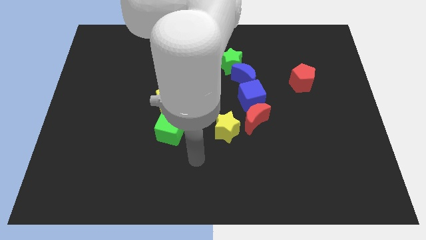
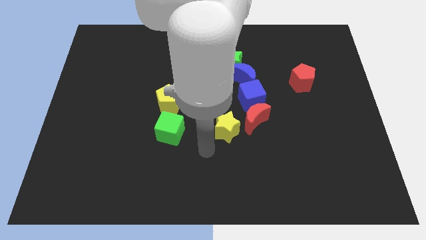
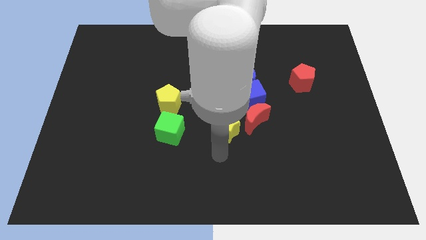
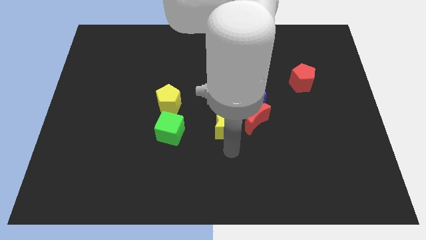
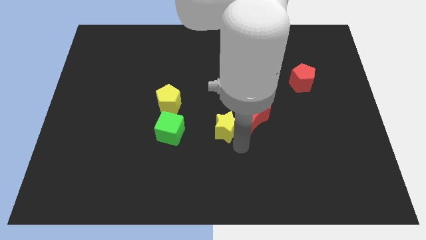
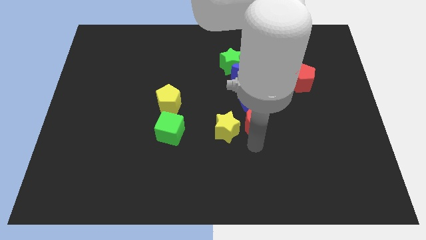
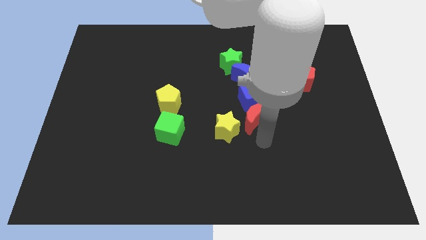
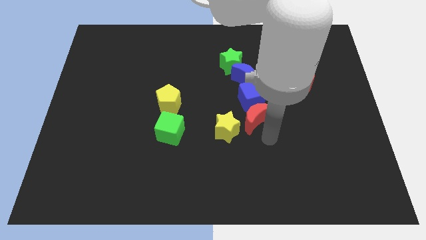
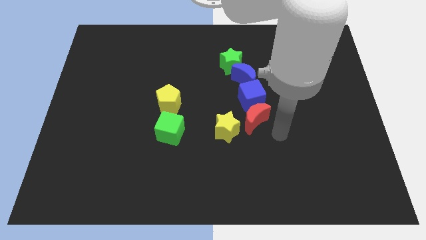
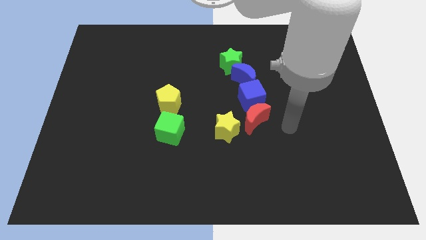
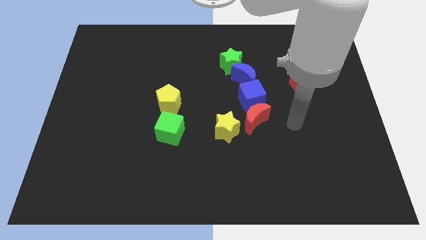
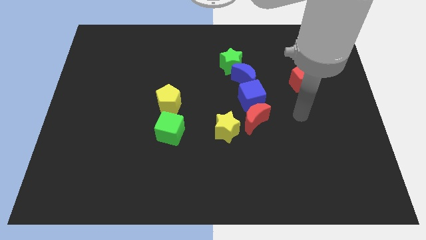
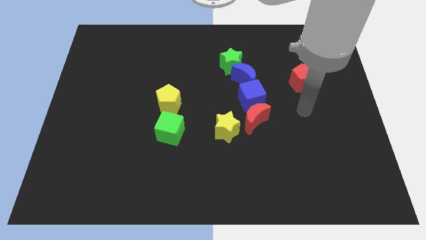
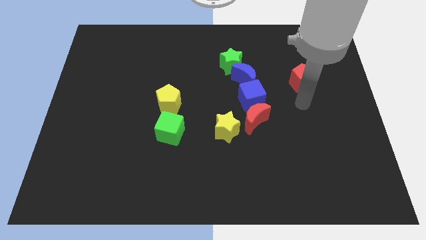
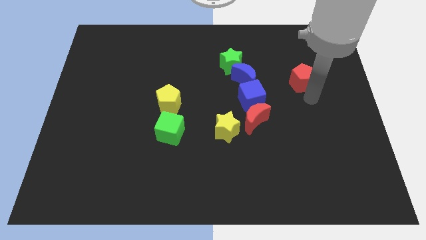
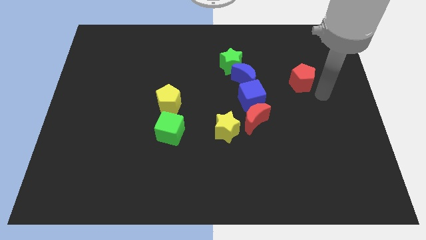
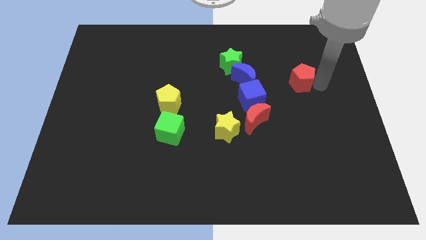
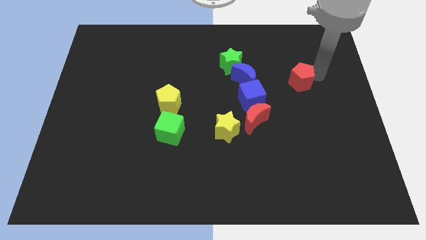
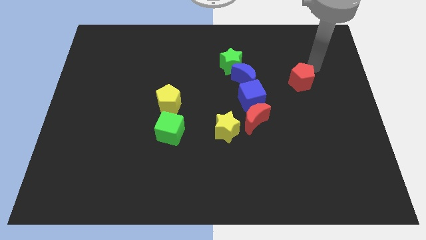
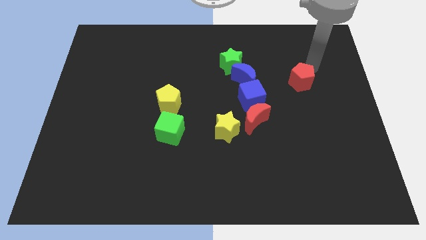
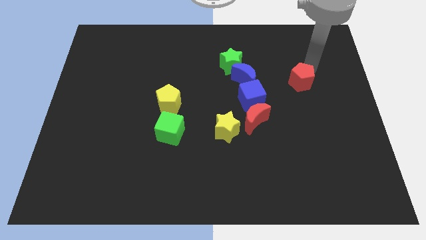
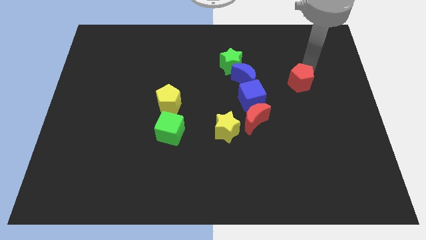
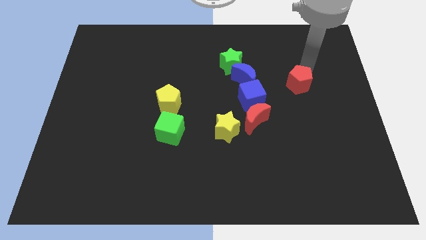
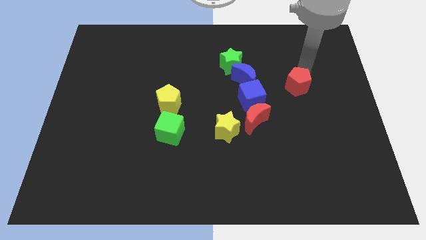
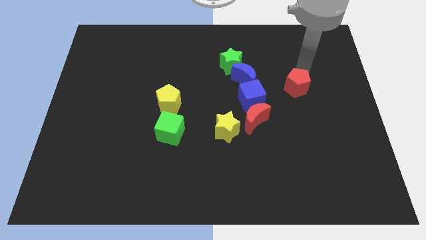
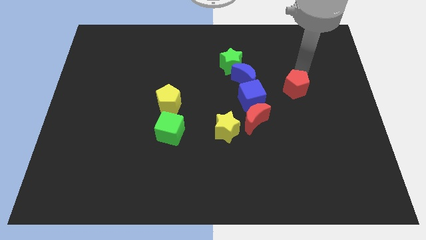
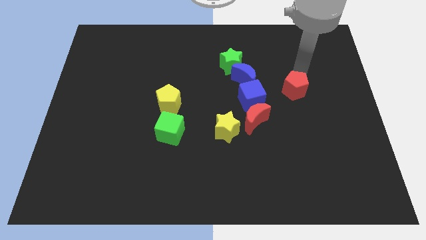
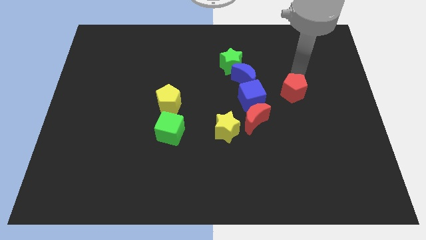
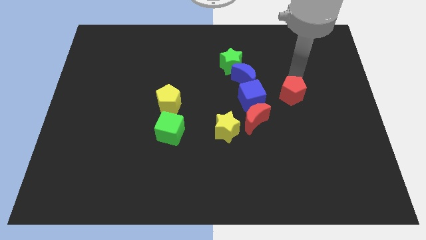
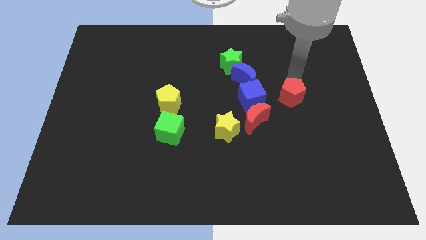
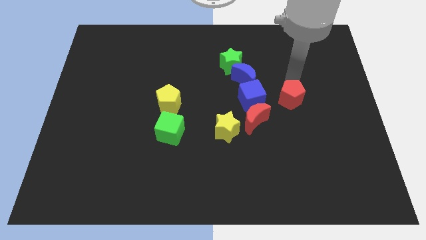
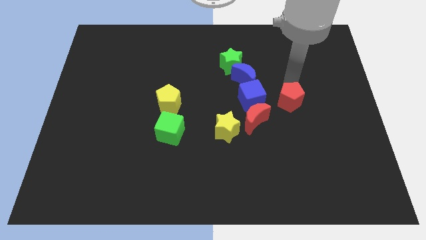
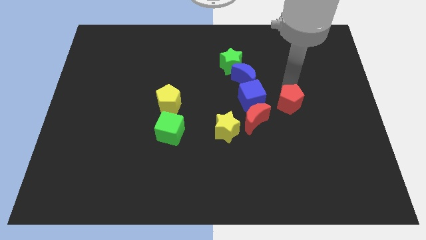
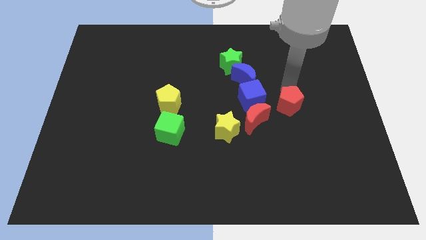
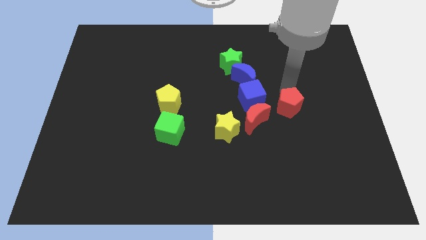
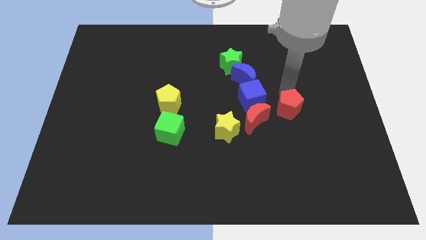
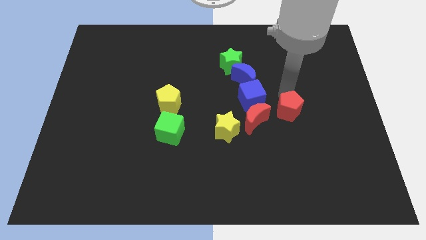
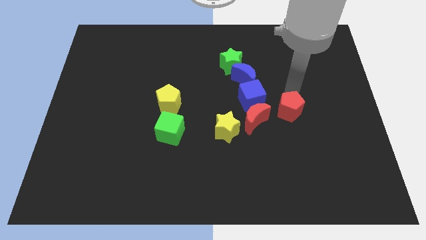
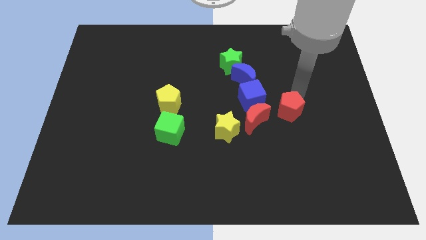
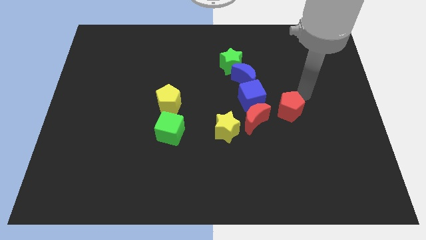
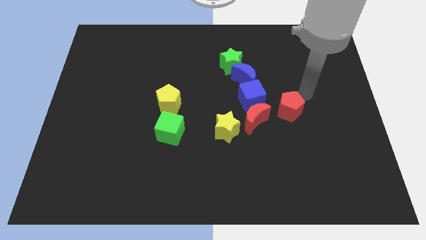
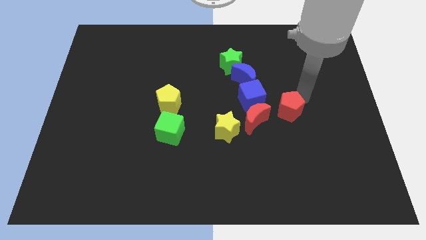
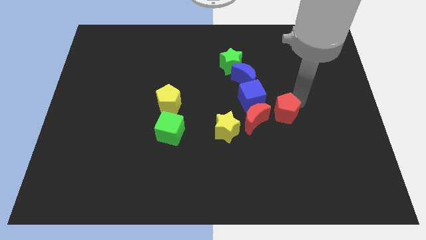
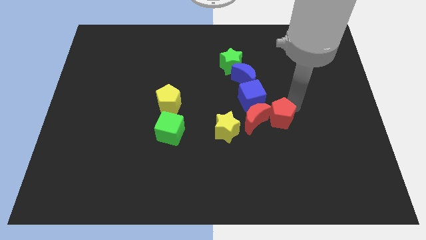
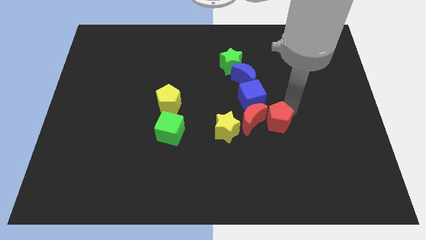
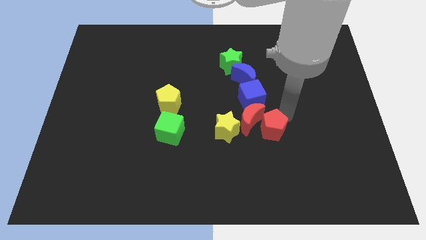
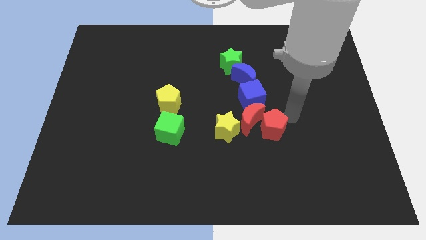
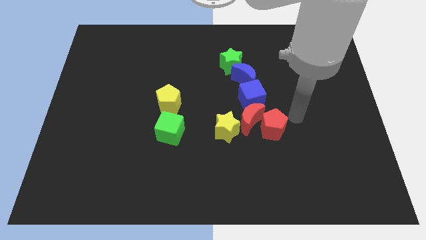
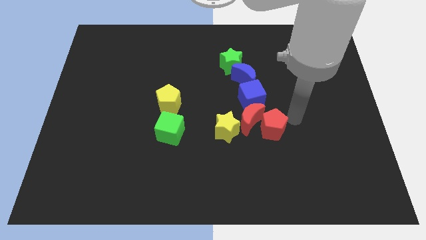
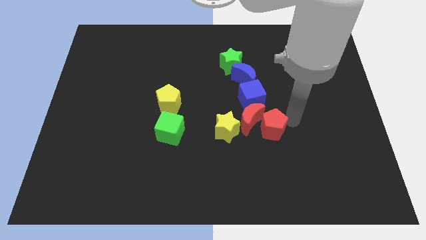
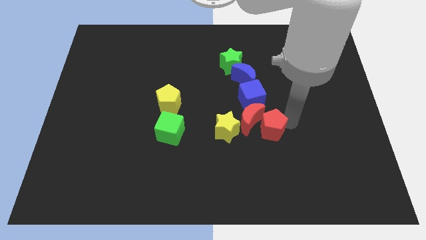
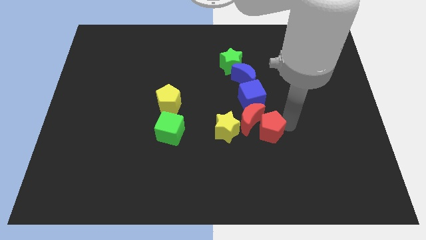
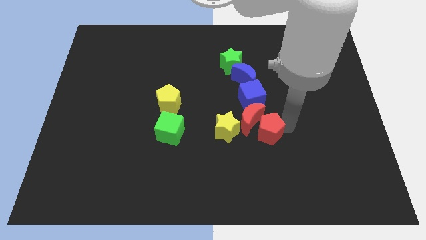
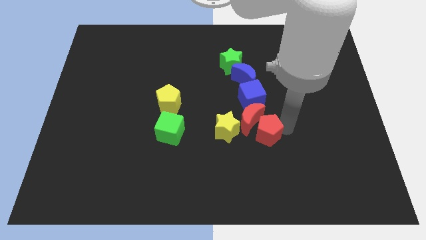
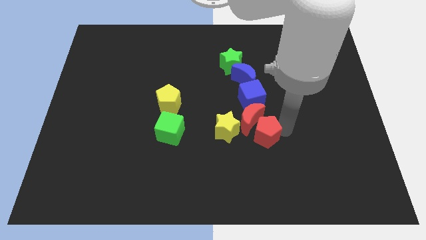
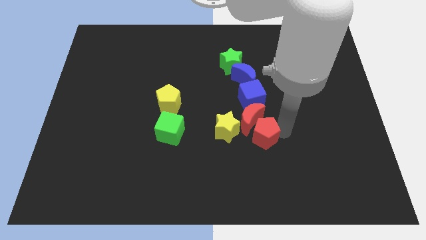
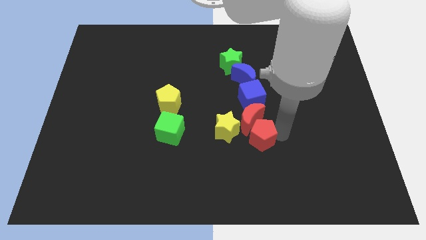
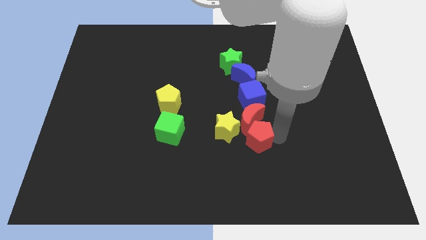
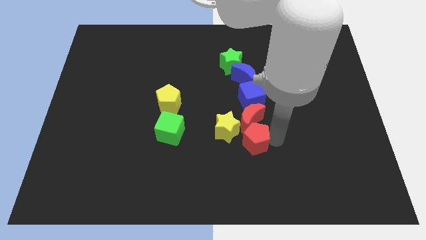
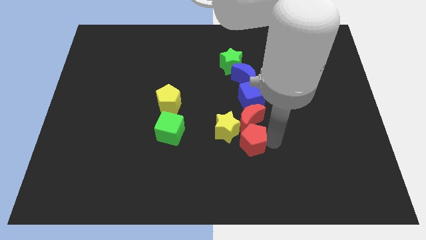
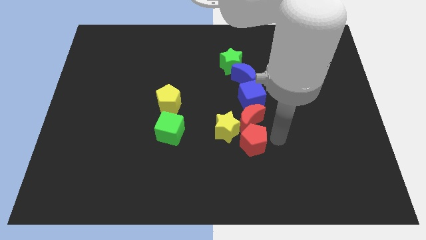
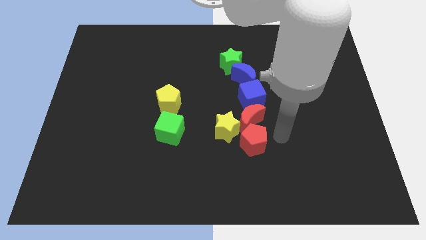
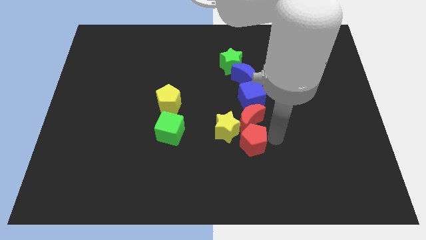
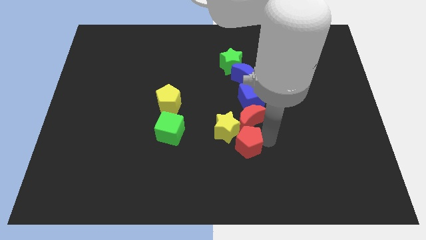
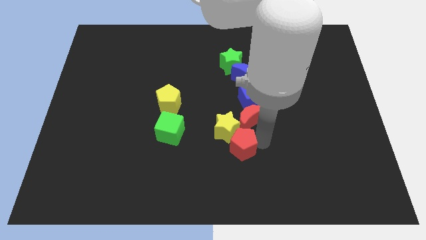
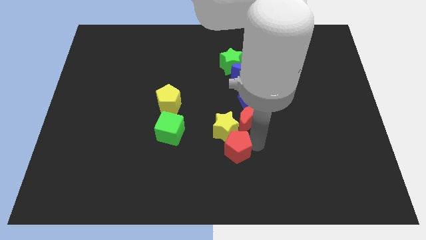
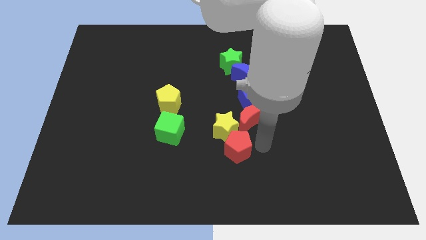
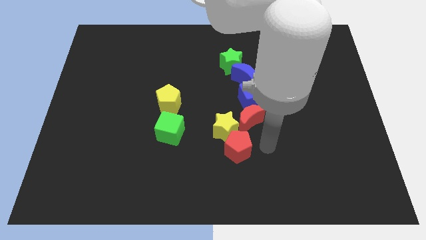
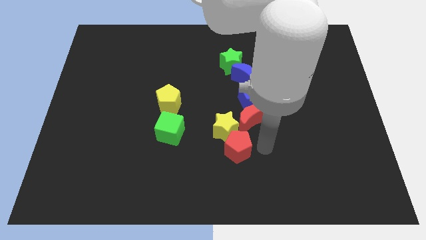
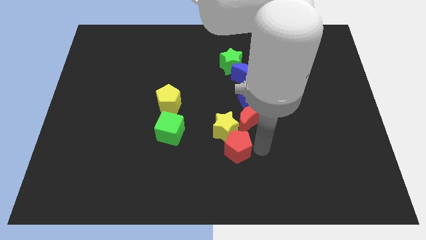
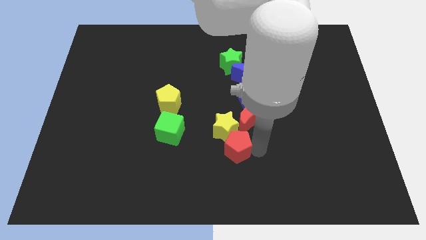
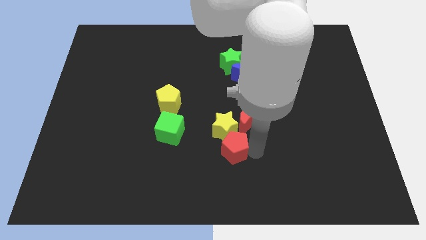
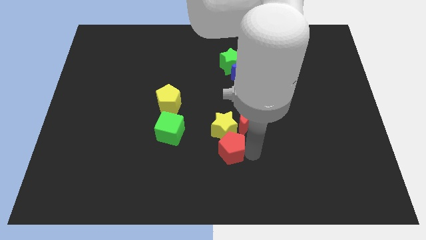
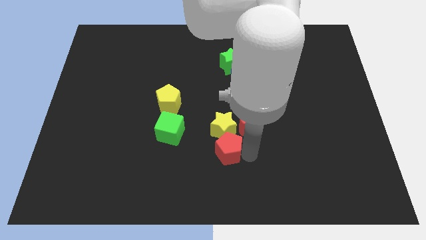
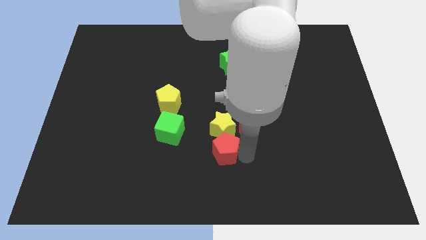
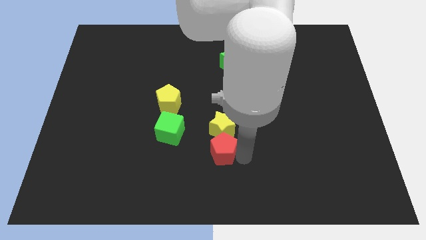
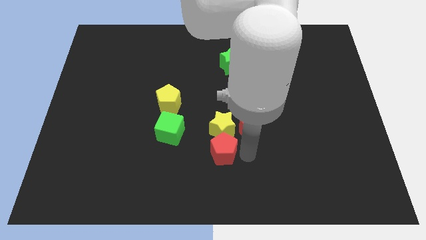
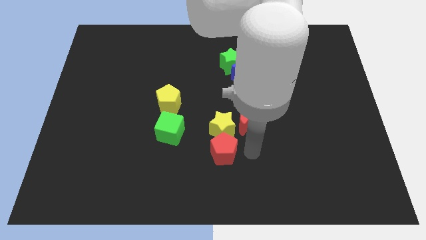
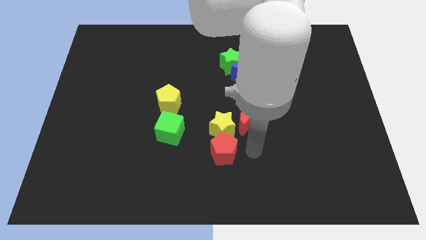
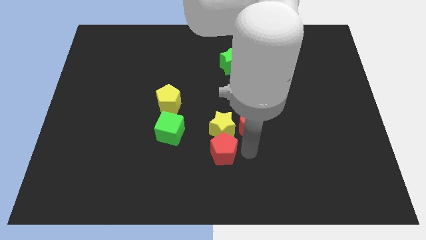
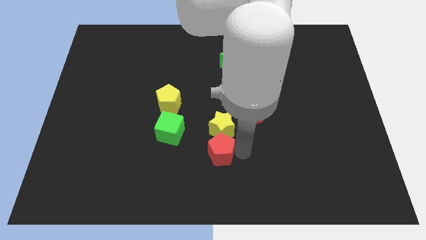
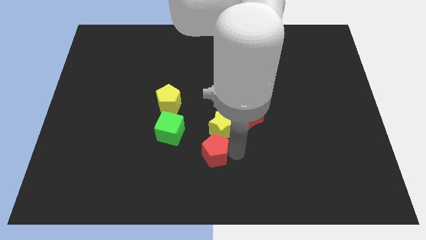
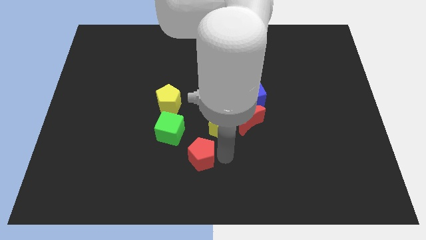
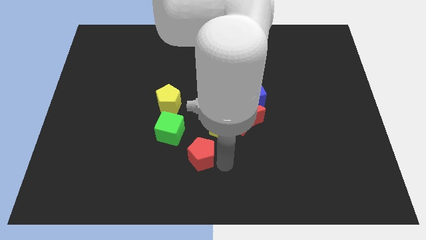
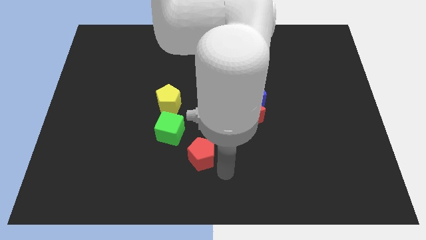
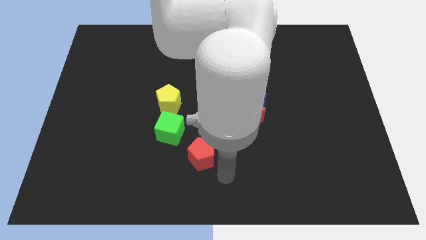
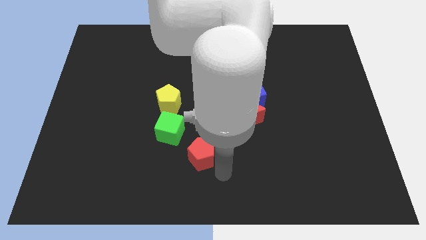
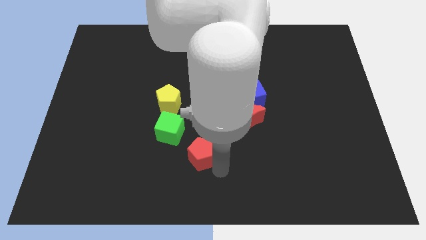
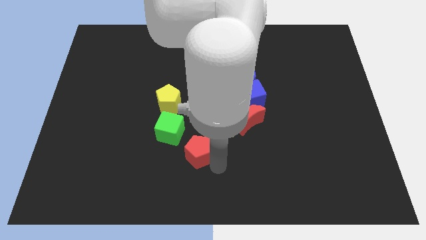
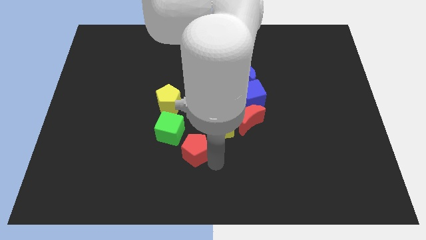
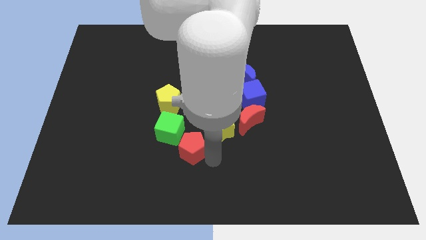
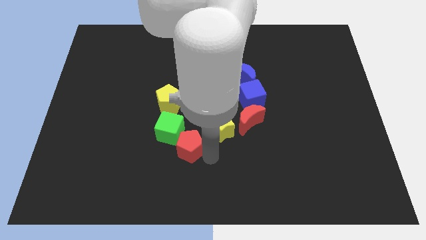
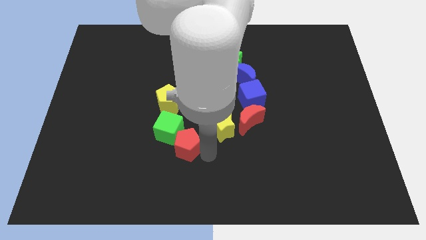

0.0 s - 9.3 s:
put the red pentagon towards the green cube
